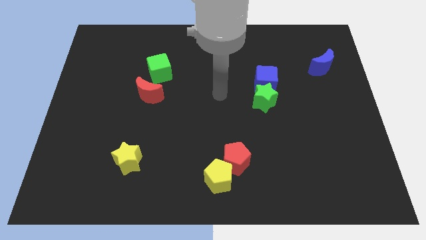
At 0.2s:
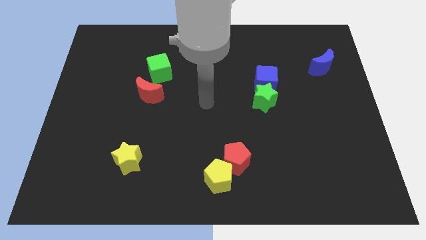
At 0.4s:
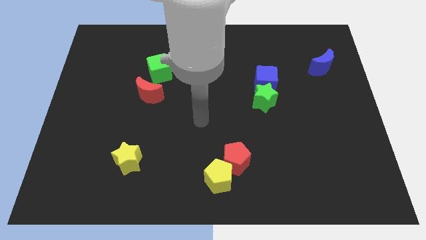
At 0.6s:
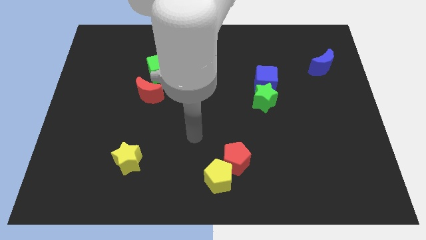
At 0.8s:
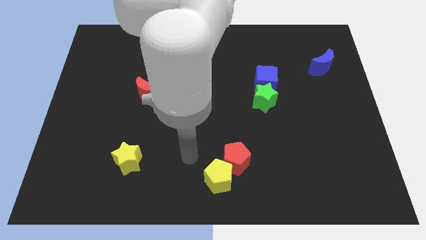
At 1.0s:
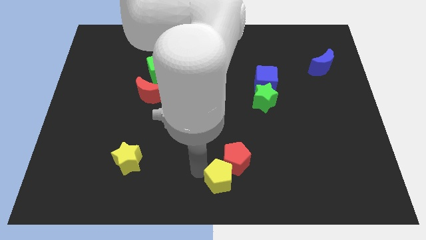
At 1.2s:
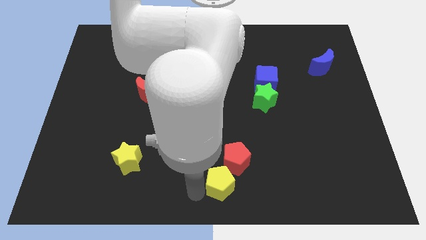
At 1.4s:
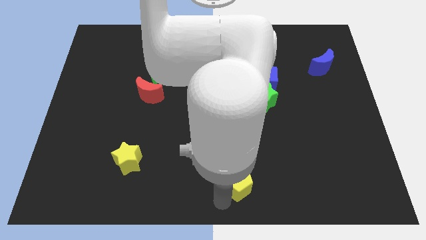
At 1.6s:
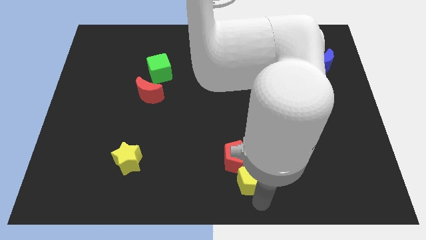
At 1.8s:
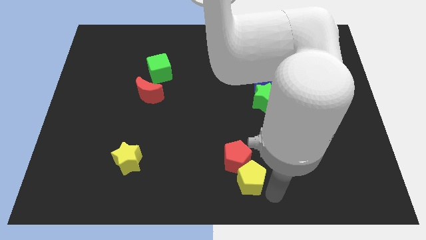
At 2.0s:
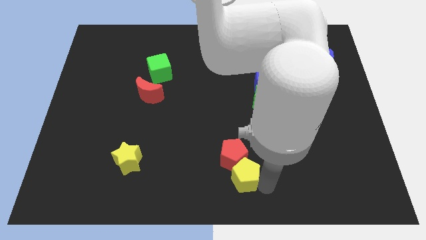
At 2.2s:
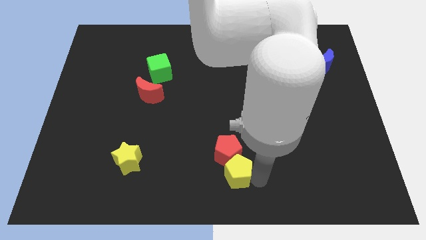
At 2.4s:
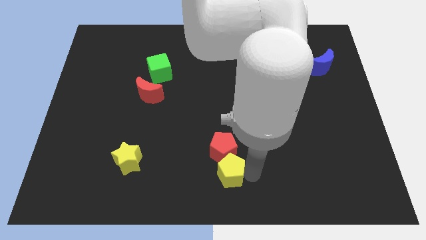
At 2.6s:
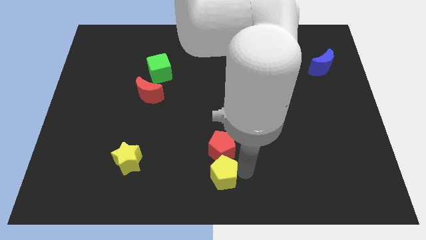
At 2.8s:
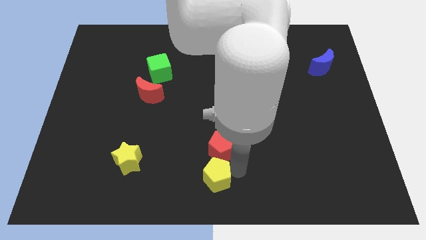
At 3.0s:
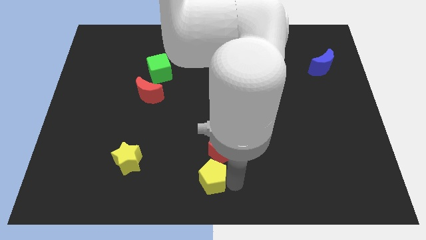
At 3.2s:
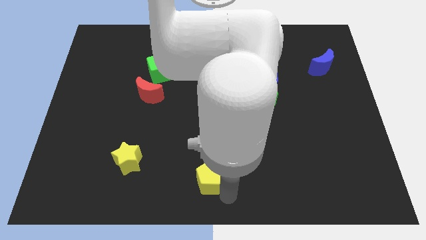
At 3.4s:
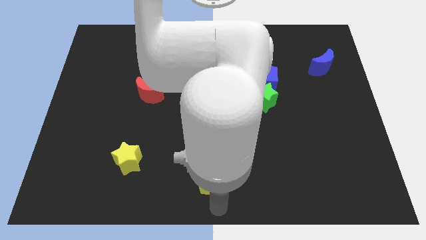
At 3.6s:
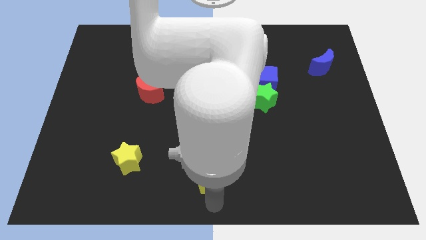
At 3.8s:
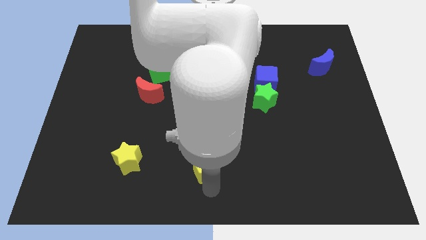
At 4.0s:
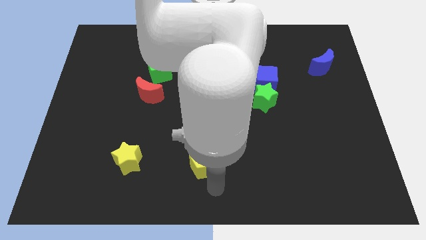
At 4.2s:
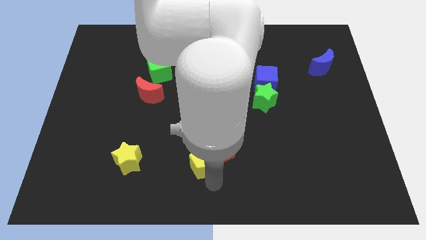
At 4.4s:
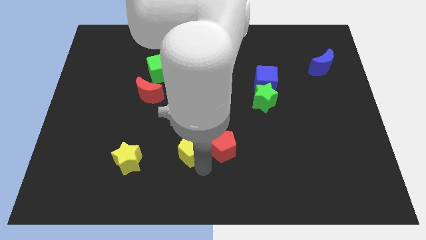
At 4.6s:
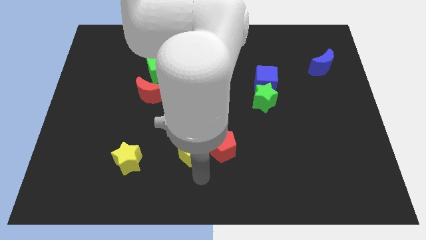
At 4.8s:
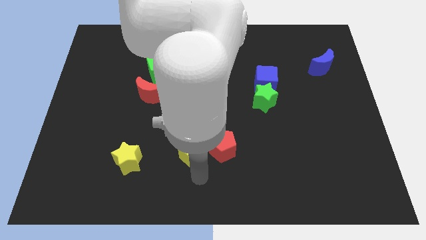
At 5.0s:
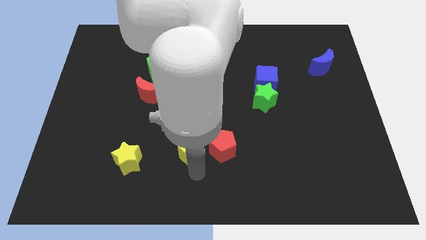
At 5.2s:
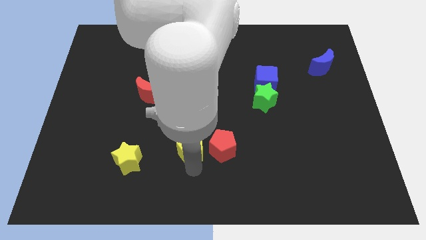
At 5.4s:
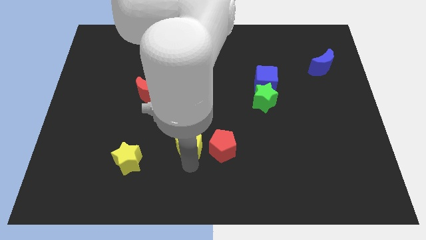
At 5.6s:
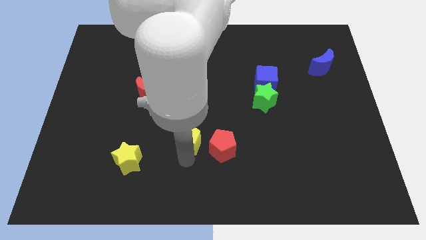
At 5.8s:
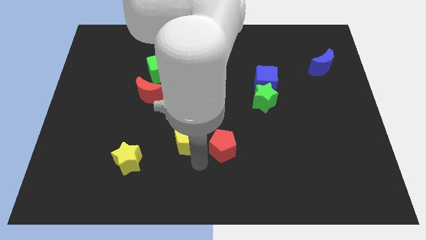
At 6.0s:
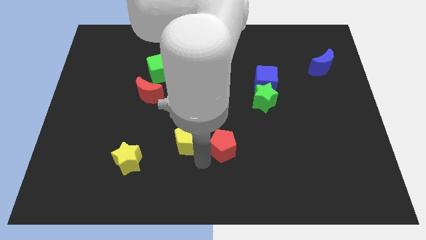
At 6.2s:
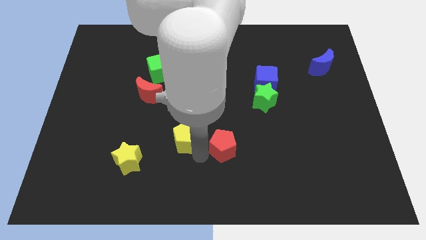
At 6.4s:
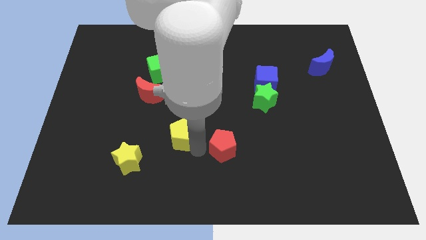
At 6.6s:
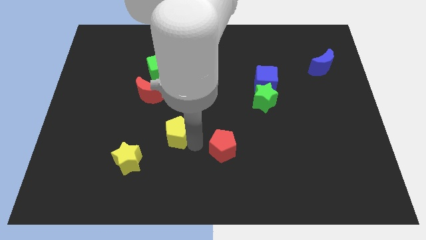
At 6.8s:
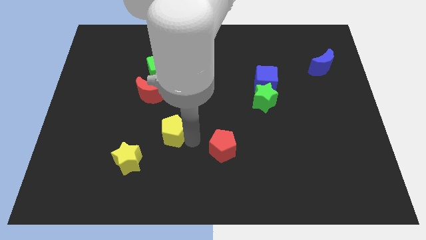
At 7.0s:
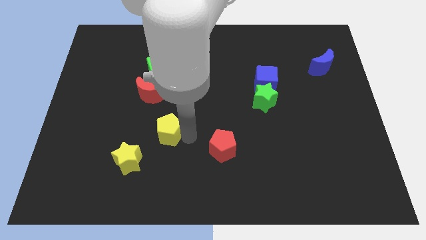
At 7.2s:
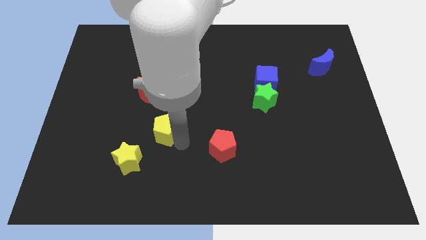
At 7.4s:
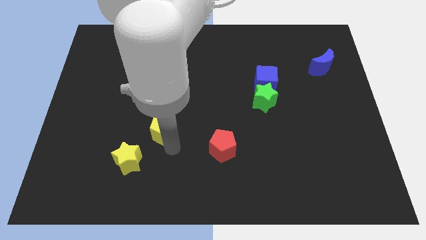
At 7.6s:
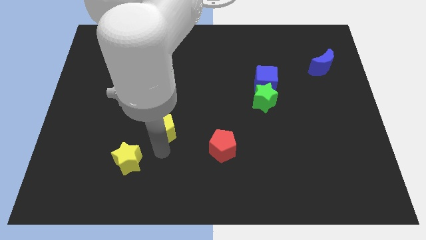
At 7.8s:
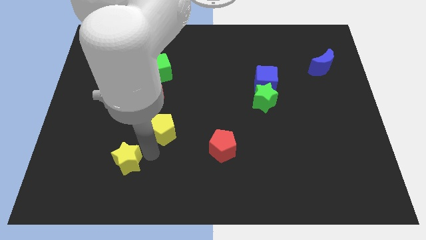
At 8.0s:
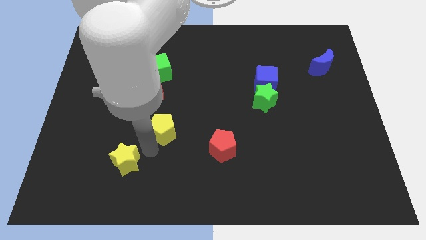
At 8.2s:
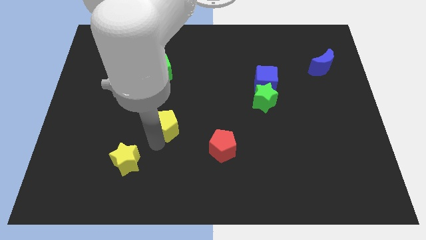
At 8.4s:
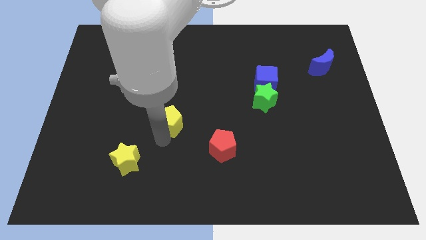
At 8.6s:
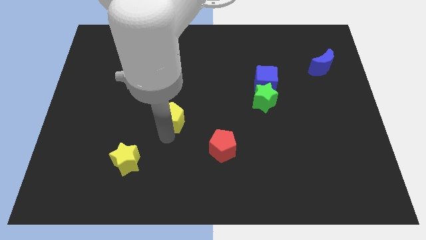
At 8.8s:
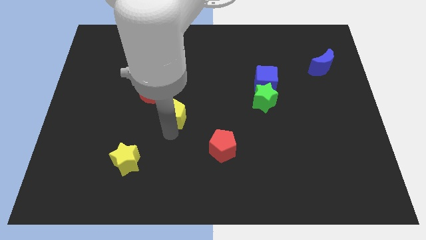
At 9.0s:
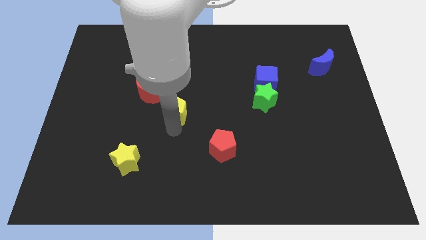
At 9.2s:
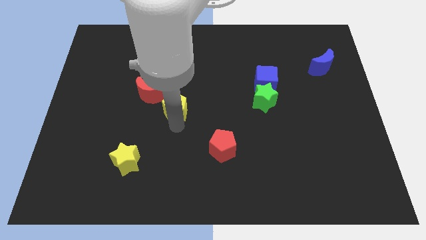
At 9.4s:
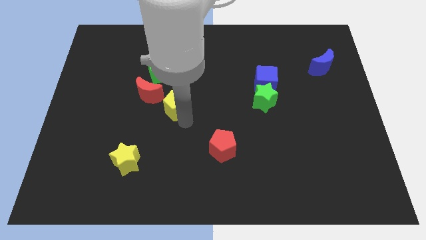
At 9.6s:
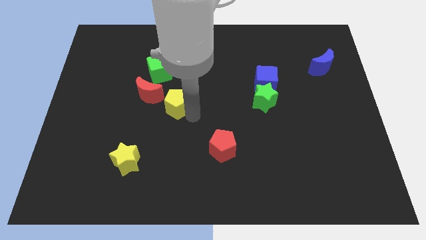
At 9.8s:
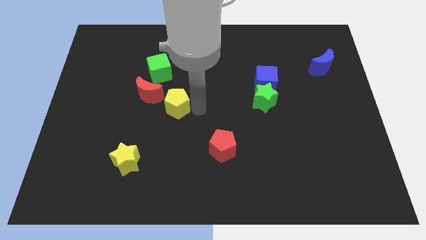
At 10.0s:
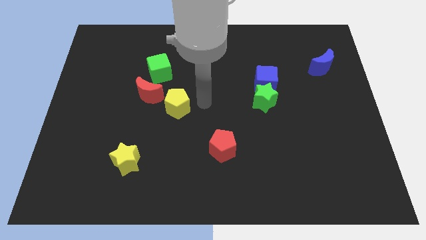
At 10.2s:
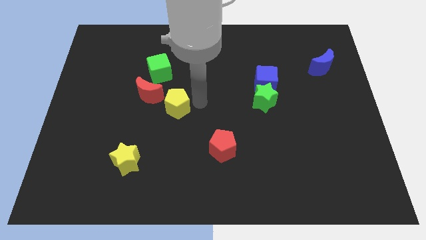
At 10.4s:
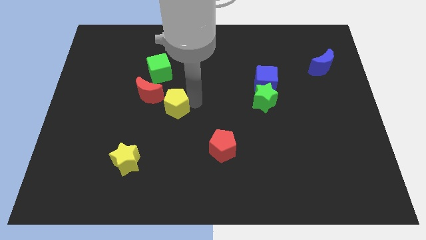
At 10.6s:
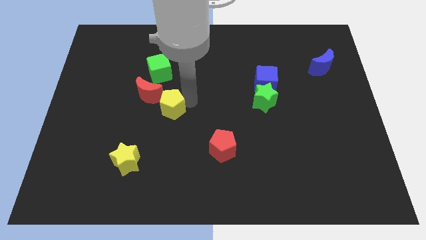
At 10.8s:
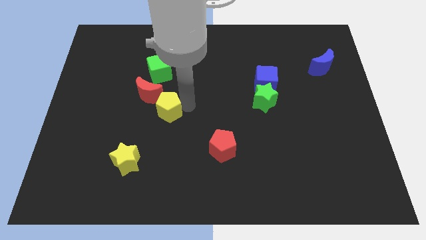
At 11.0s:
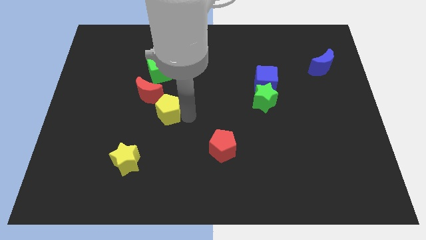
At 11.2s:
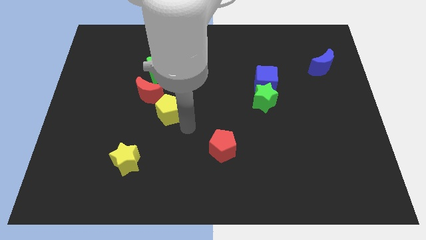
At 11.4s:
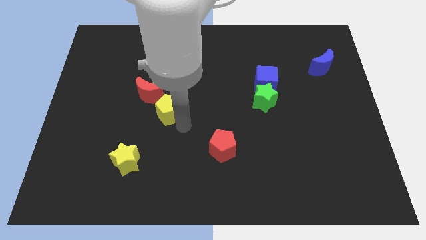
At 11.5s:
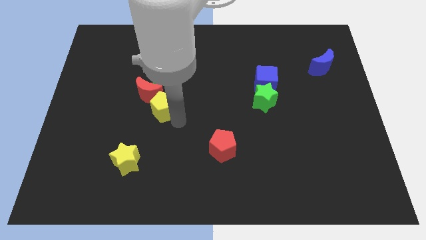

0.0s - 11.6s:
slide the yellow pentagon next to the red moon

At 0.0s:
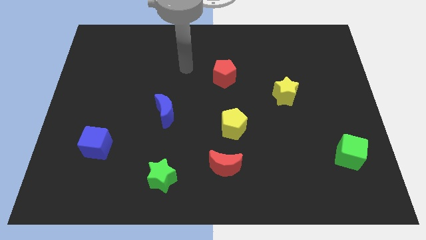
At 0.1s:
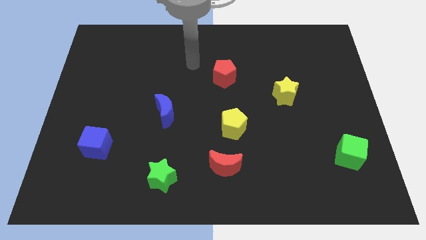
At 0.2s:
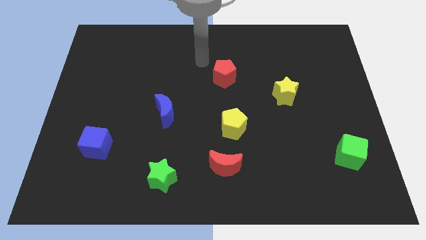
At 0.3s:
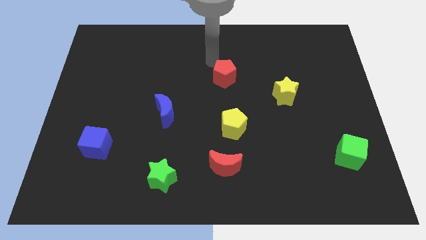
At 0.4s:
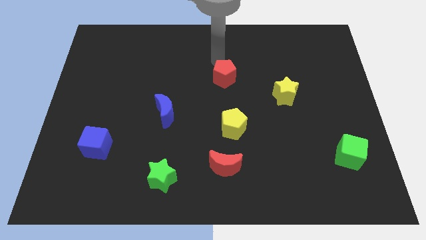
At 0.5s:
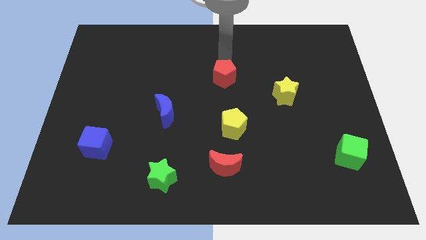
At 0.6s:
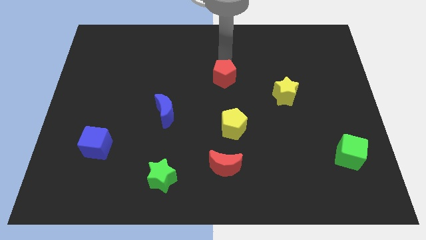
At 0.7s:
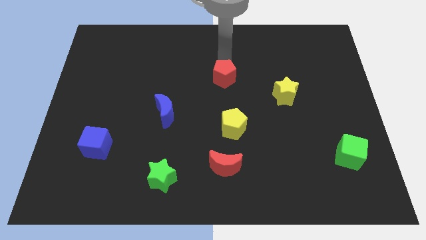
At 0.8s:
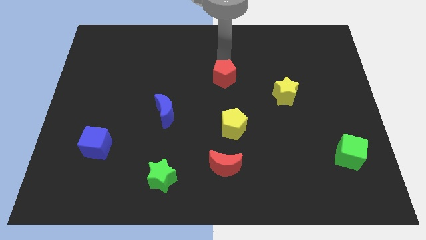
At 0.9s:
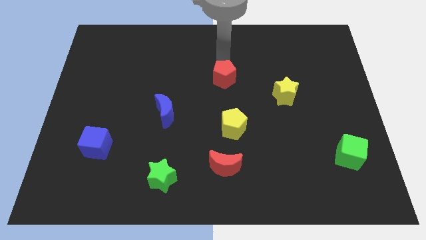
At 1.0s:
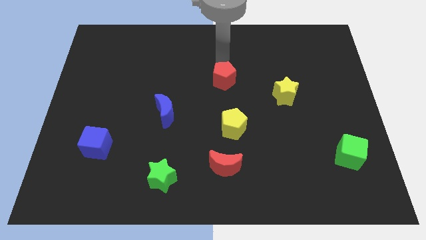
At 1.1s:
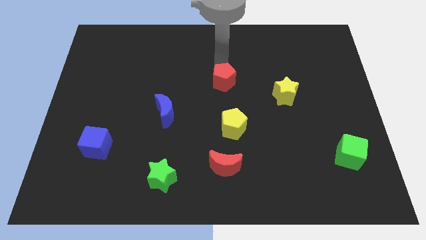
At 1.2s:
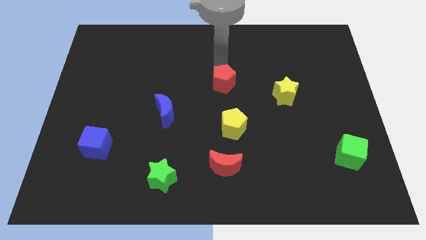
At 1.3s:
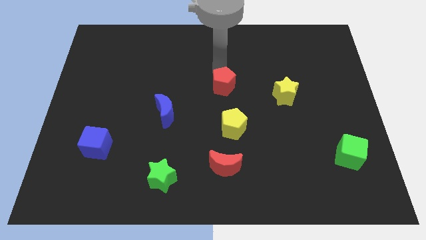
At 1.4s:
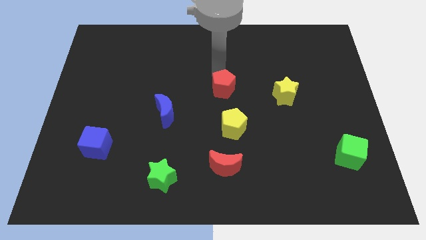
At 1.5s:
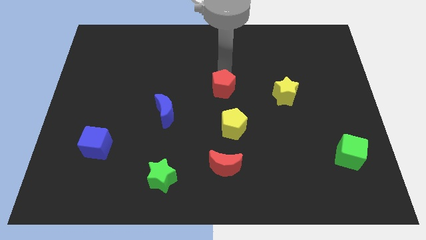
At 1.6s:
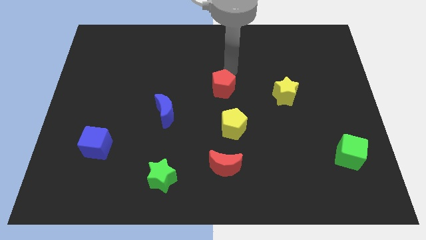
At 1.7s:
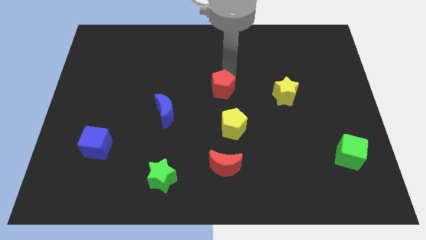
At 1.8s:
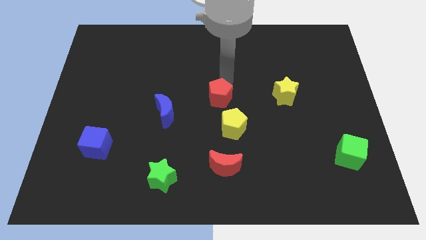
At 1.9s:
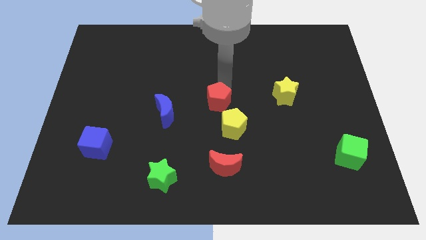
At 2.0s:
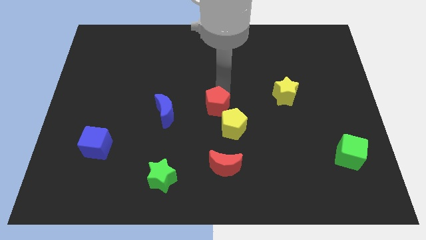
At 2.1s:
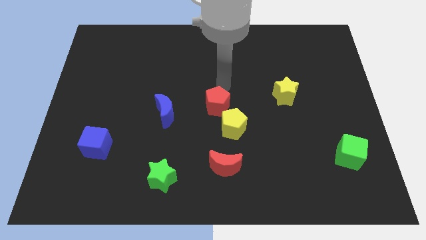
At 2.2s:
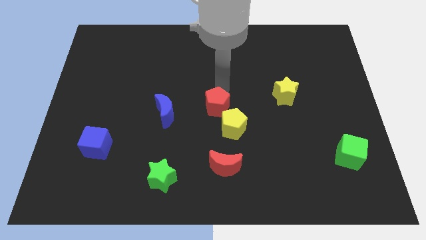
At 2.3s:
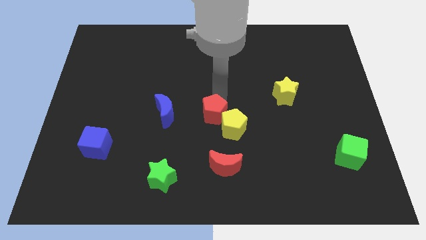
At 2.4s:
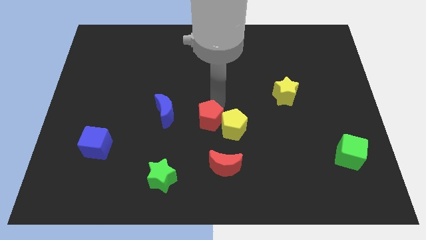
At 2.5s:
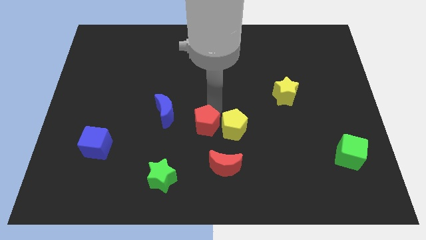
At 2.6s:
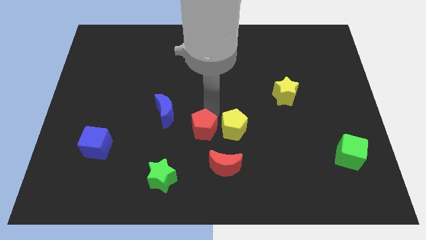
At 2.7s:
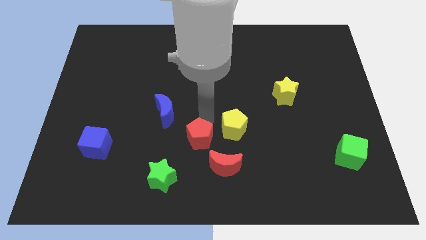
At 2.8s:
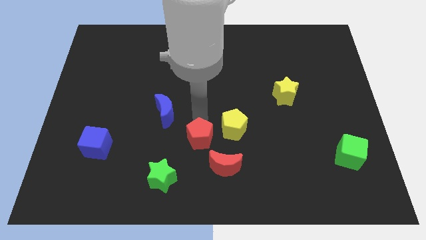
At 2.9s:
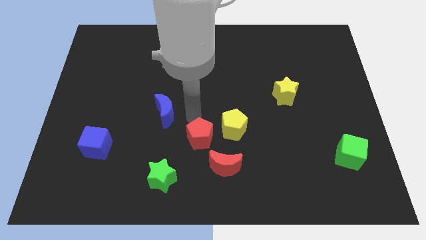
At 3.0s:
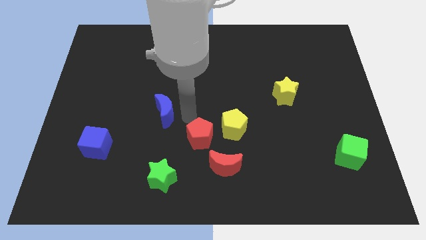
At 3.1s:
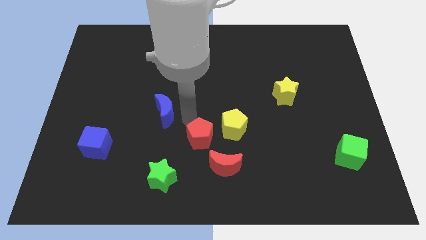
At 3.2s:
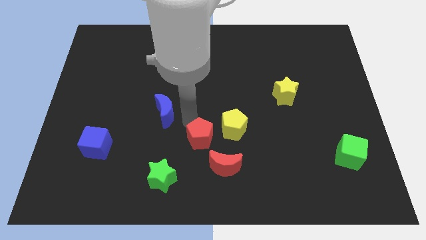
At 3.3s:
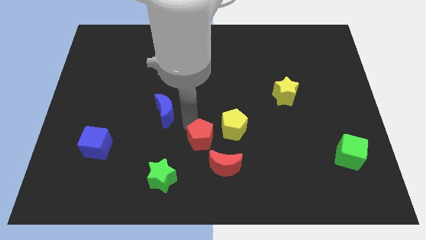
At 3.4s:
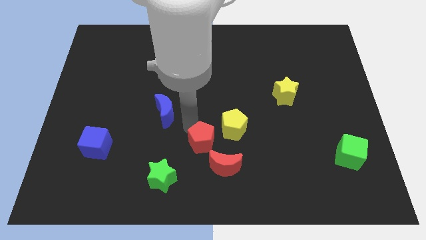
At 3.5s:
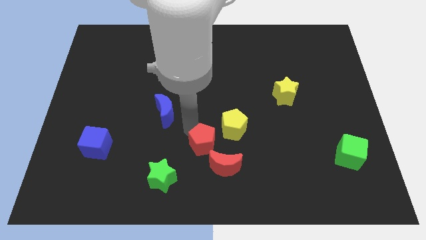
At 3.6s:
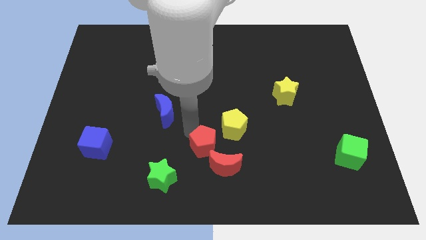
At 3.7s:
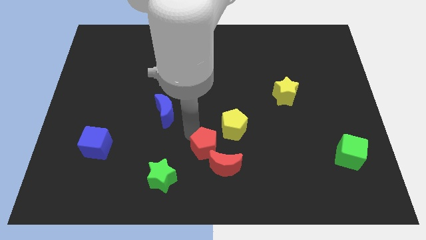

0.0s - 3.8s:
slide the red pentagon to the red moon
